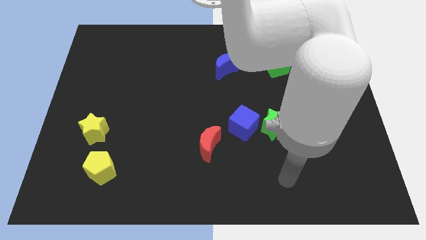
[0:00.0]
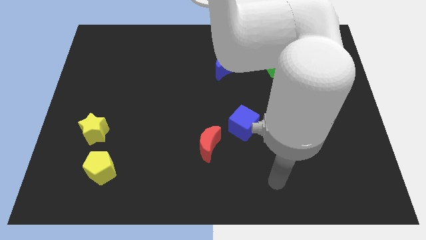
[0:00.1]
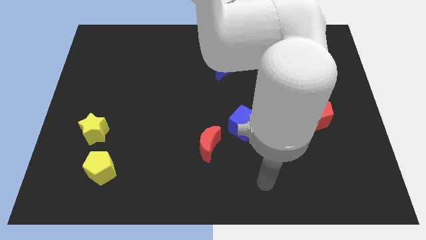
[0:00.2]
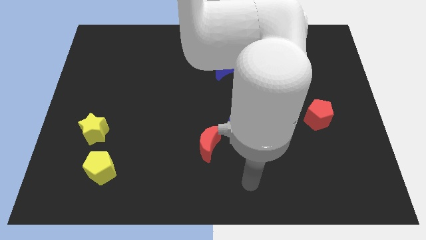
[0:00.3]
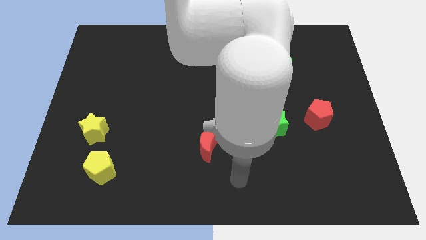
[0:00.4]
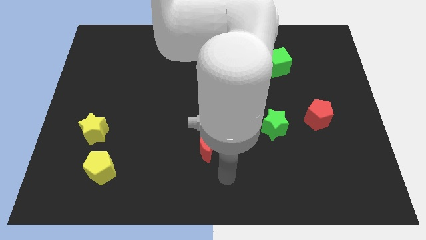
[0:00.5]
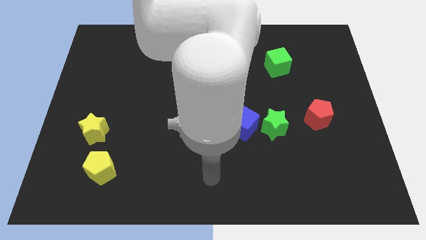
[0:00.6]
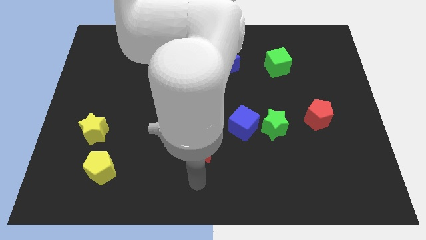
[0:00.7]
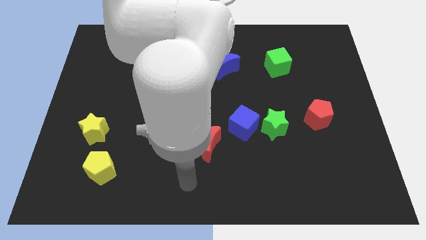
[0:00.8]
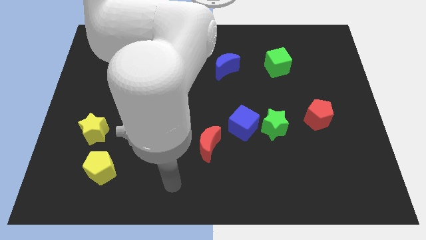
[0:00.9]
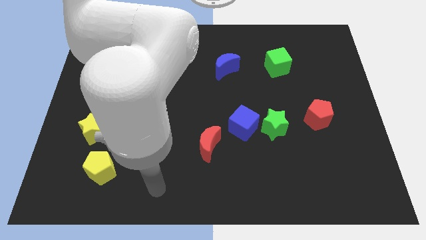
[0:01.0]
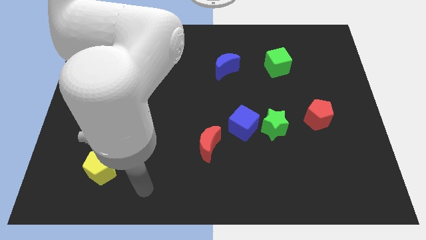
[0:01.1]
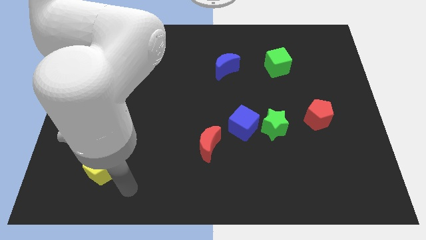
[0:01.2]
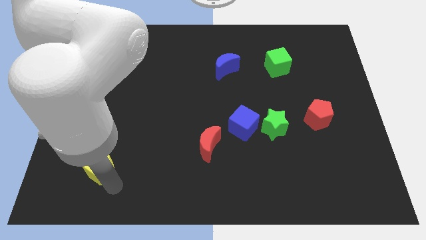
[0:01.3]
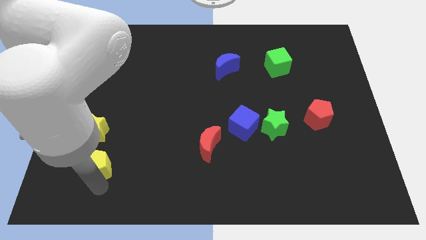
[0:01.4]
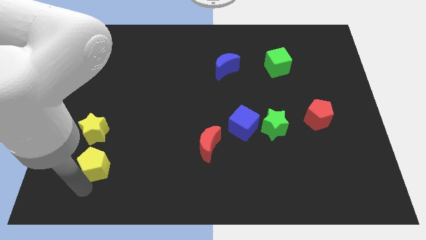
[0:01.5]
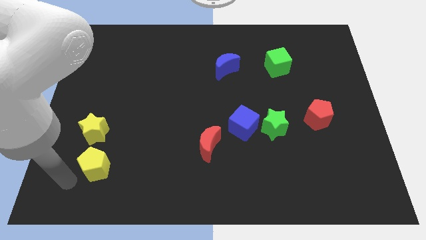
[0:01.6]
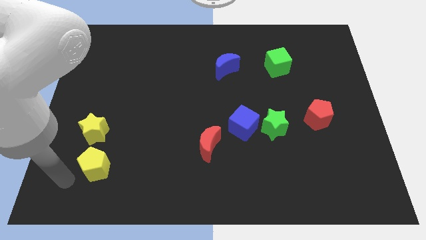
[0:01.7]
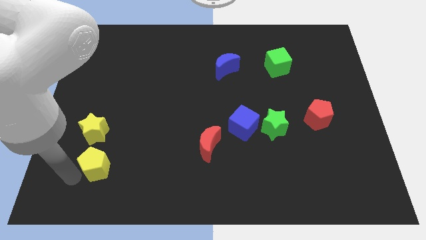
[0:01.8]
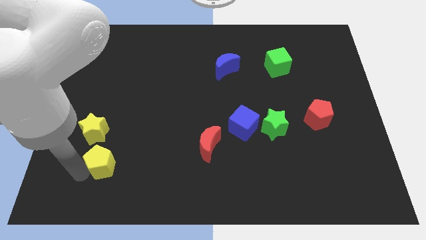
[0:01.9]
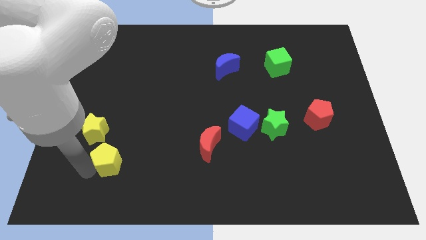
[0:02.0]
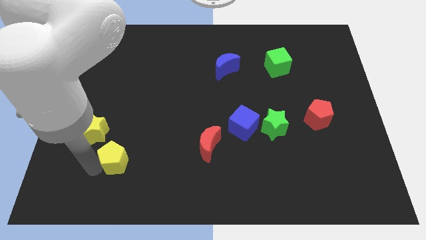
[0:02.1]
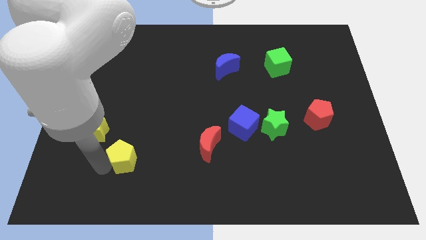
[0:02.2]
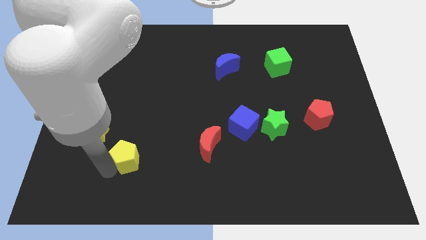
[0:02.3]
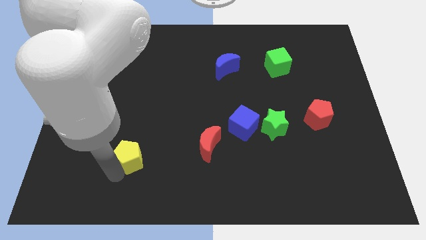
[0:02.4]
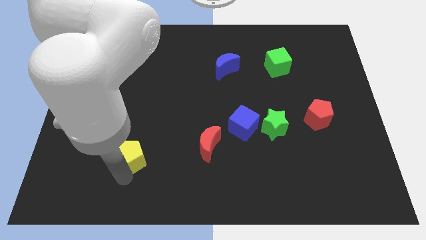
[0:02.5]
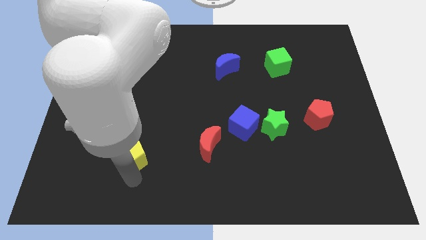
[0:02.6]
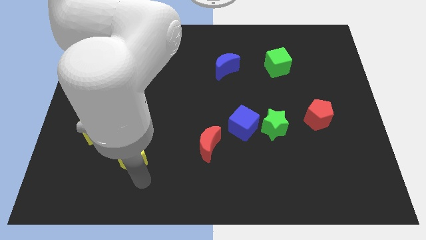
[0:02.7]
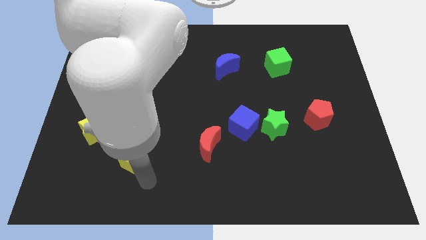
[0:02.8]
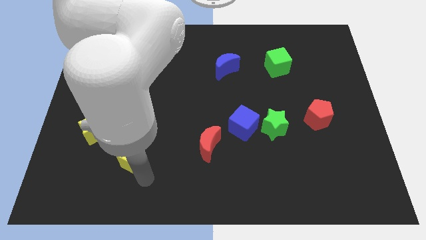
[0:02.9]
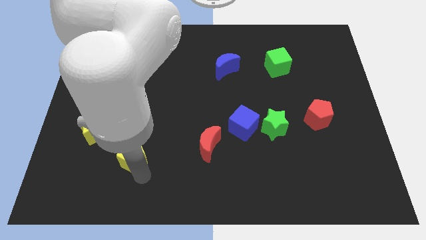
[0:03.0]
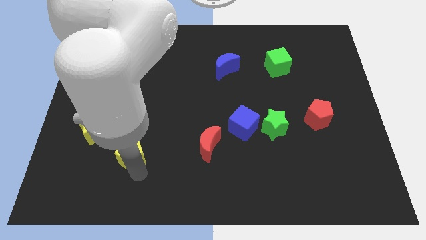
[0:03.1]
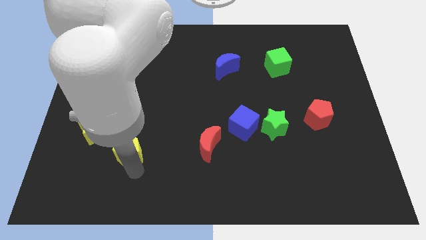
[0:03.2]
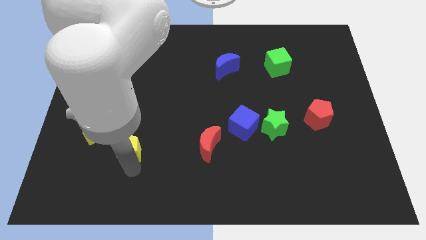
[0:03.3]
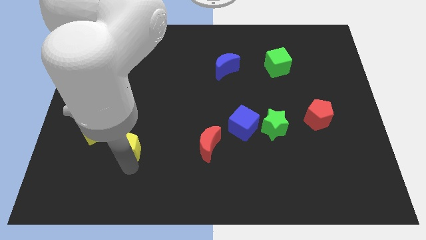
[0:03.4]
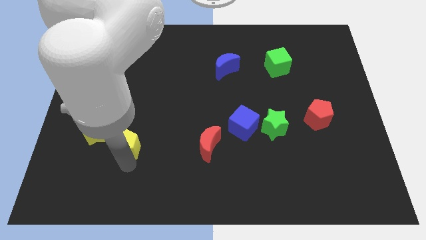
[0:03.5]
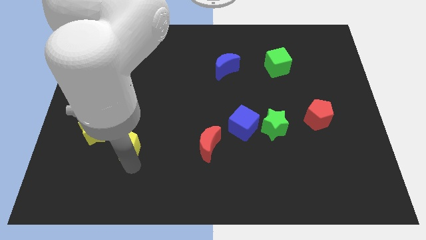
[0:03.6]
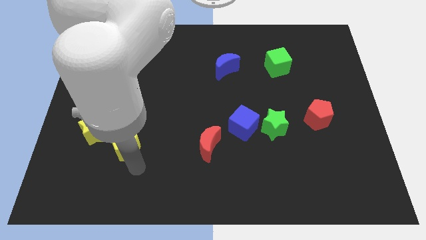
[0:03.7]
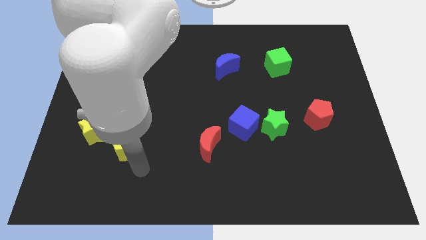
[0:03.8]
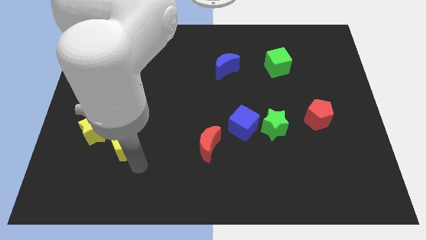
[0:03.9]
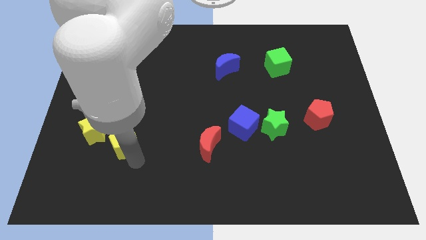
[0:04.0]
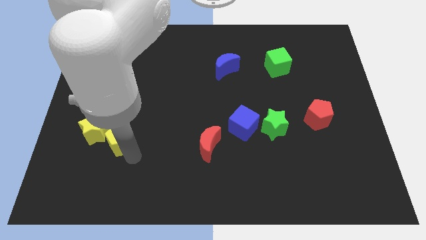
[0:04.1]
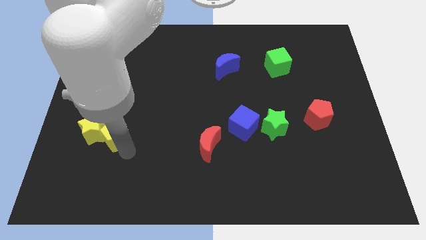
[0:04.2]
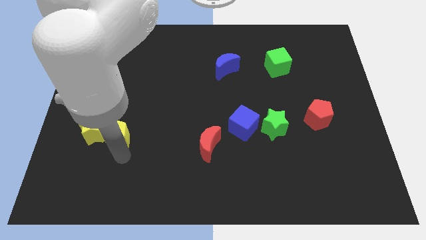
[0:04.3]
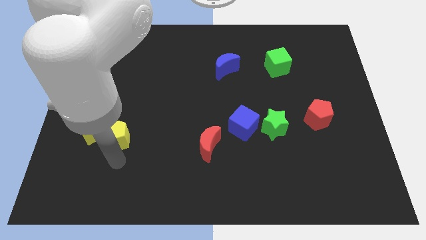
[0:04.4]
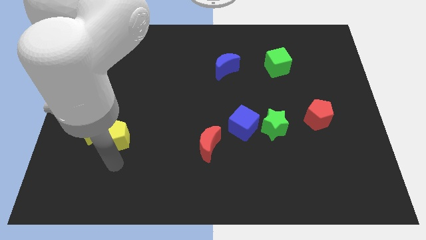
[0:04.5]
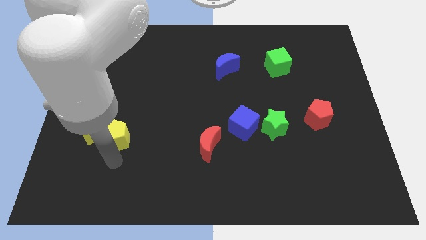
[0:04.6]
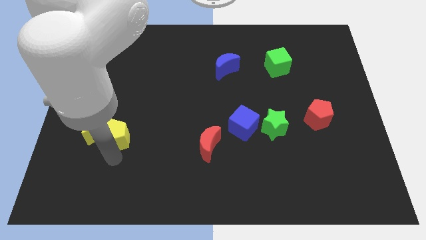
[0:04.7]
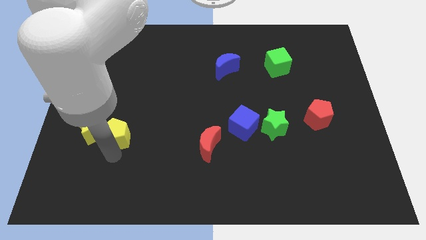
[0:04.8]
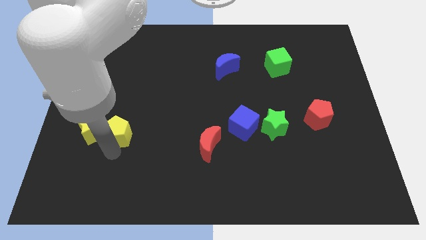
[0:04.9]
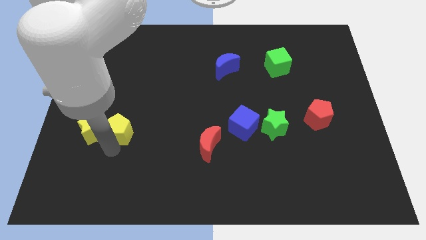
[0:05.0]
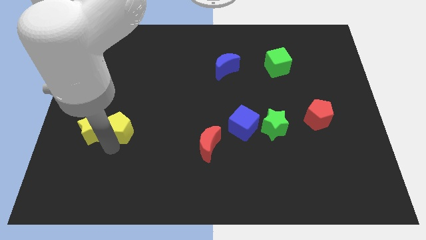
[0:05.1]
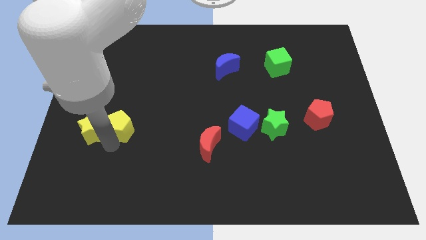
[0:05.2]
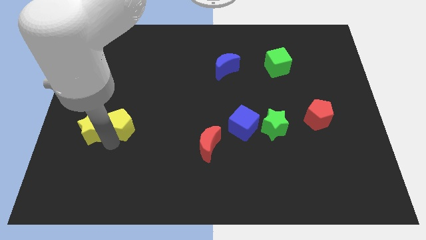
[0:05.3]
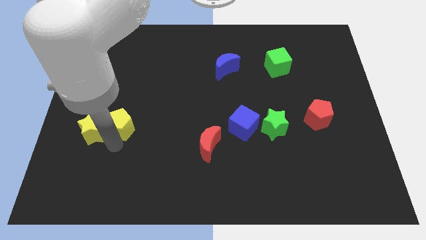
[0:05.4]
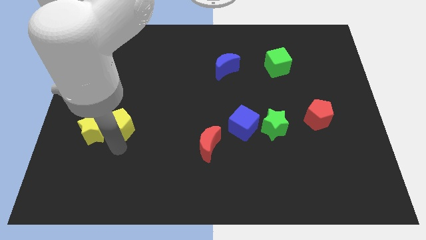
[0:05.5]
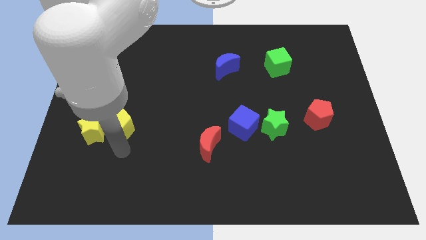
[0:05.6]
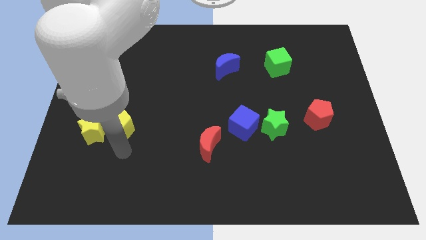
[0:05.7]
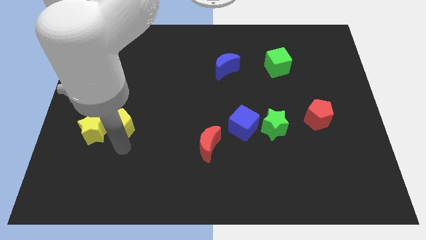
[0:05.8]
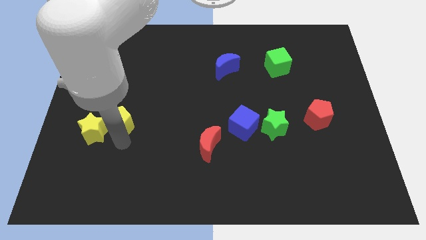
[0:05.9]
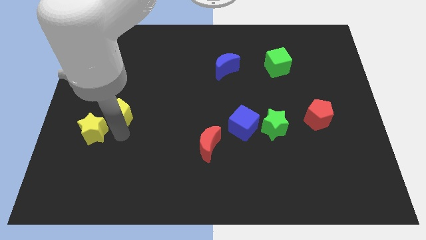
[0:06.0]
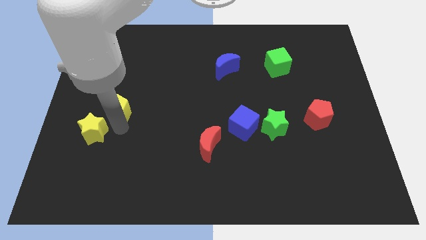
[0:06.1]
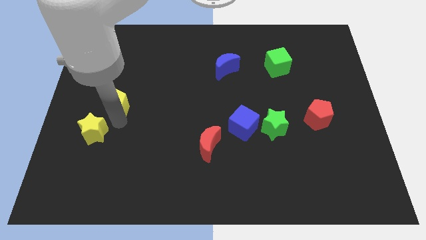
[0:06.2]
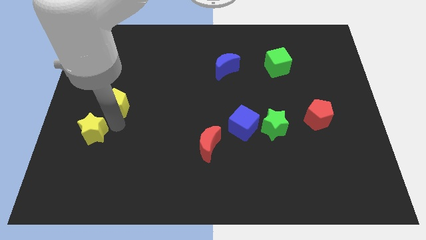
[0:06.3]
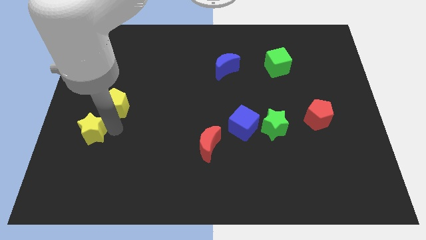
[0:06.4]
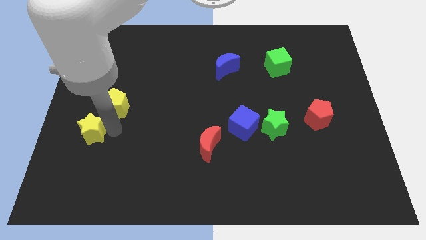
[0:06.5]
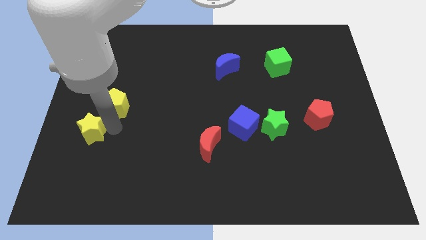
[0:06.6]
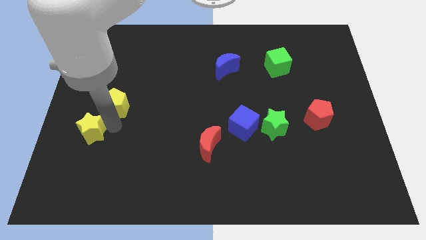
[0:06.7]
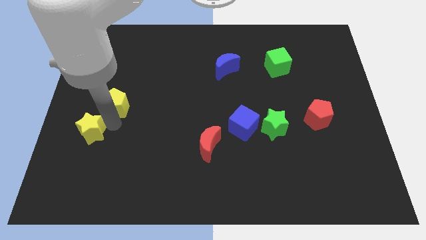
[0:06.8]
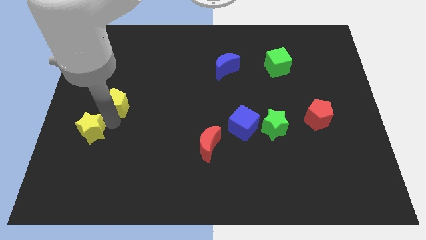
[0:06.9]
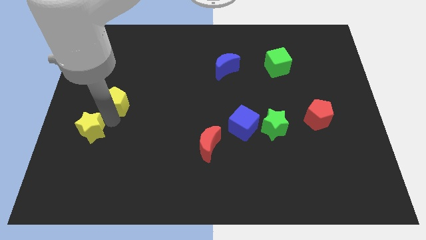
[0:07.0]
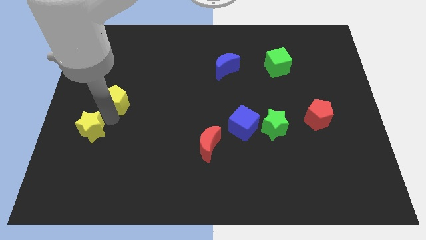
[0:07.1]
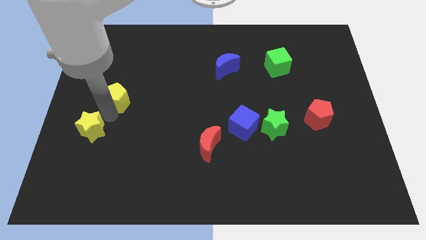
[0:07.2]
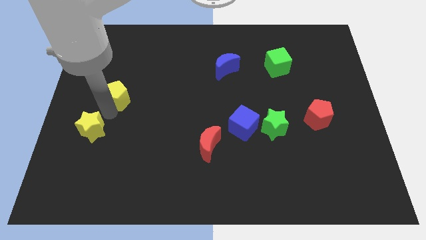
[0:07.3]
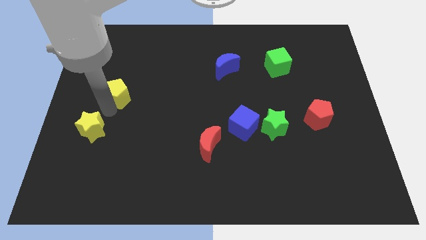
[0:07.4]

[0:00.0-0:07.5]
push the yellow pentagon upwards

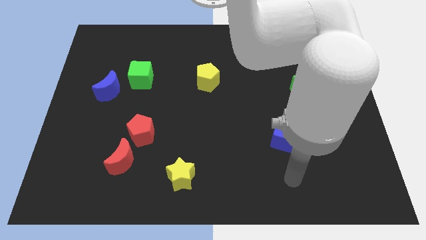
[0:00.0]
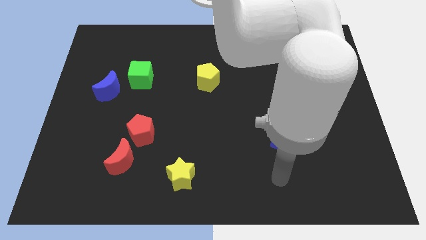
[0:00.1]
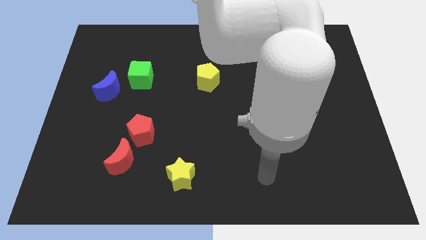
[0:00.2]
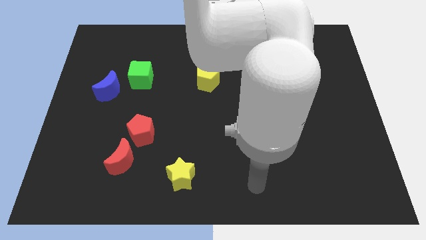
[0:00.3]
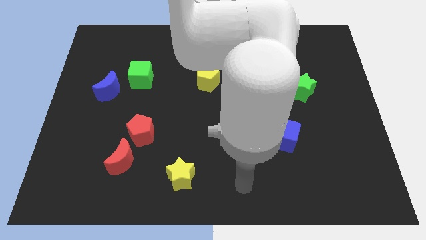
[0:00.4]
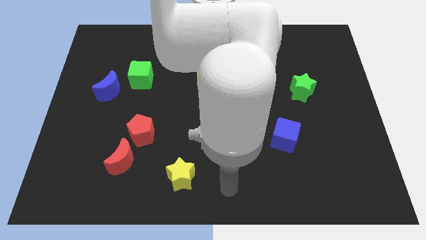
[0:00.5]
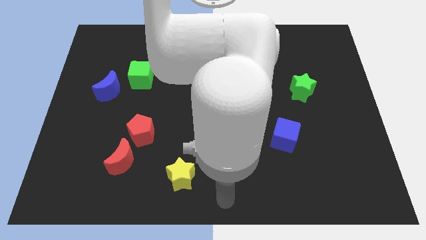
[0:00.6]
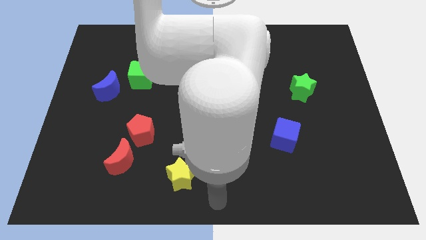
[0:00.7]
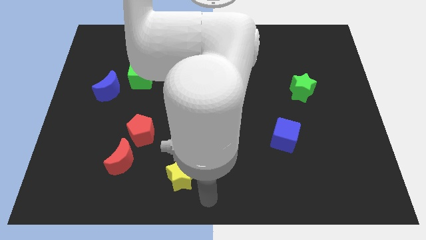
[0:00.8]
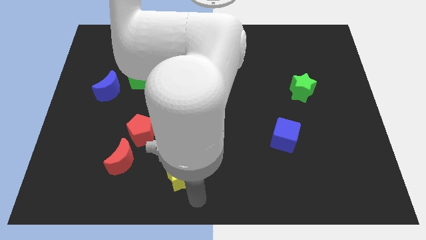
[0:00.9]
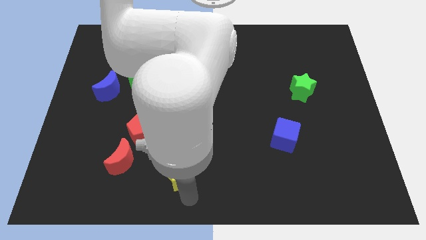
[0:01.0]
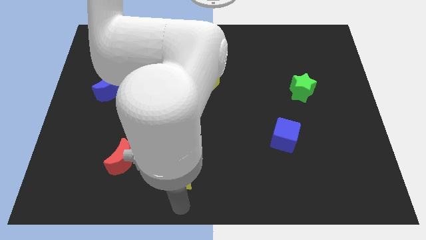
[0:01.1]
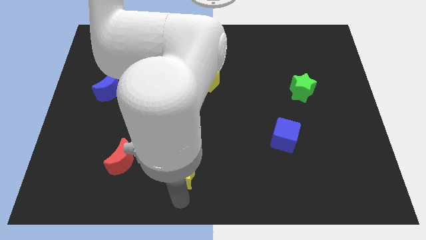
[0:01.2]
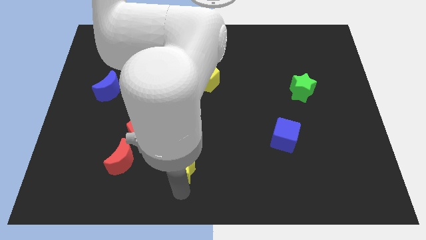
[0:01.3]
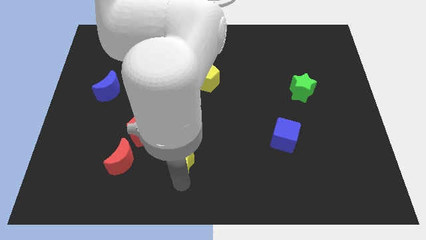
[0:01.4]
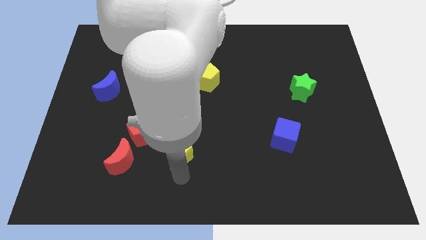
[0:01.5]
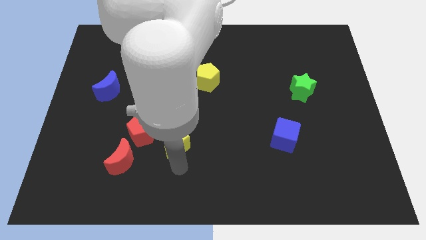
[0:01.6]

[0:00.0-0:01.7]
push the yellow star a little bit up
